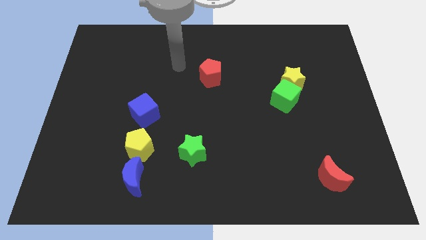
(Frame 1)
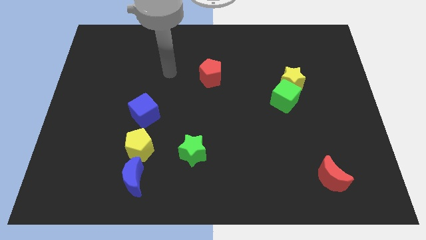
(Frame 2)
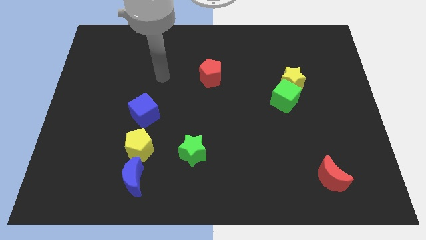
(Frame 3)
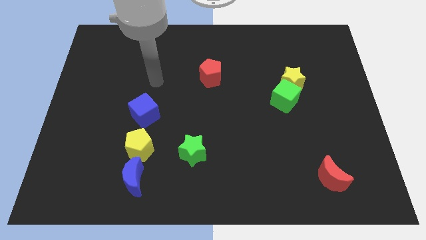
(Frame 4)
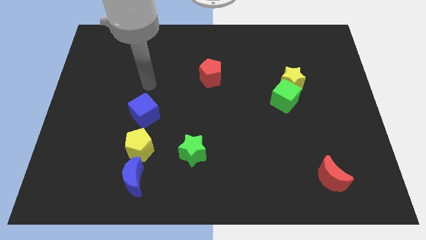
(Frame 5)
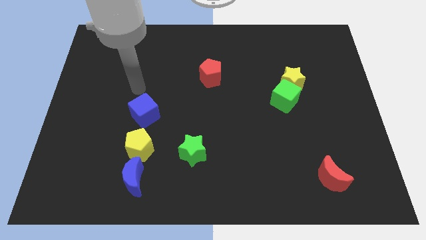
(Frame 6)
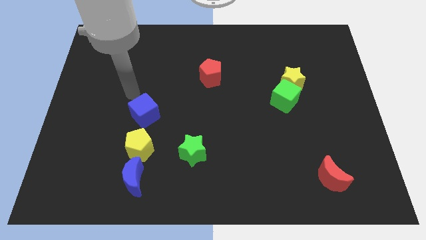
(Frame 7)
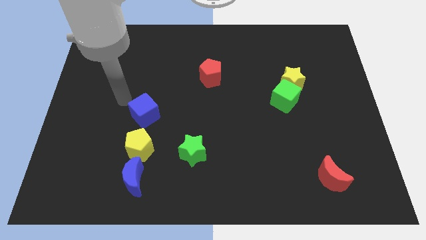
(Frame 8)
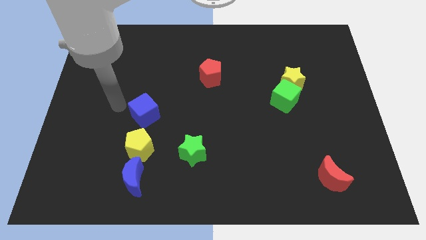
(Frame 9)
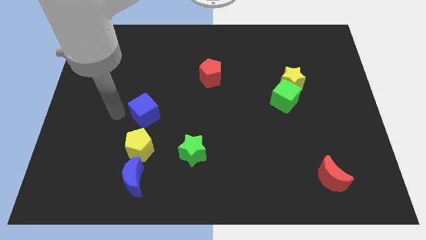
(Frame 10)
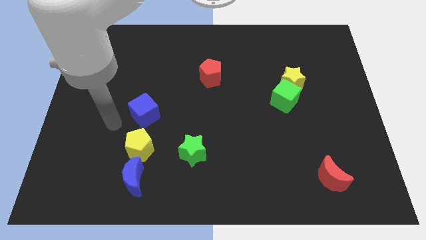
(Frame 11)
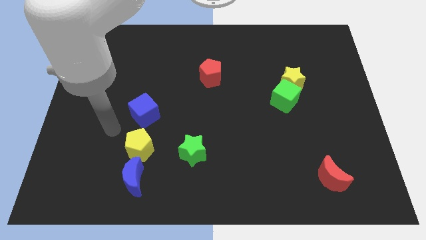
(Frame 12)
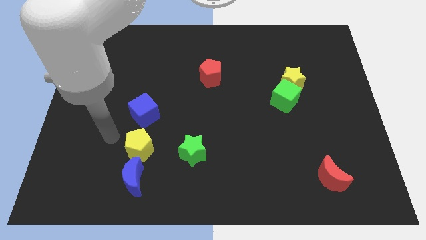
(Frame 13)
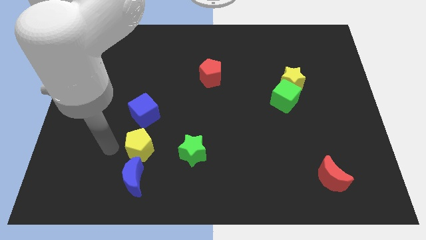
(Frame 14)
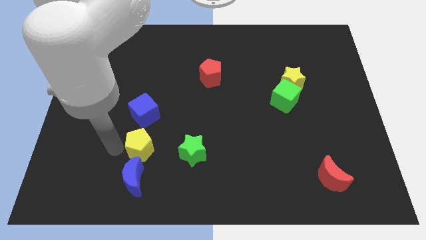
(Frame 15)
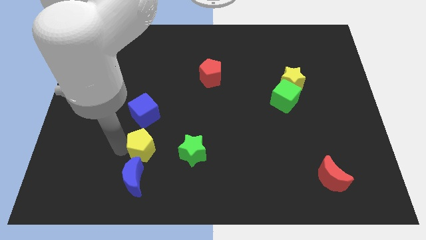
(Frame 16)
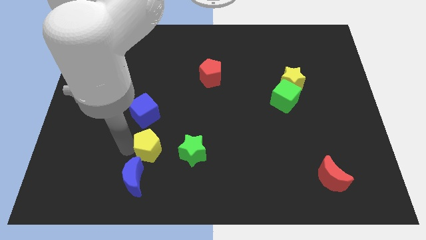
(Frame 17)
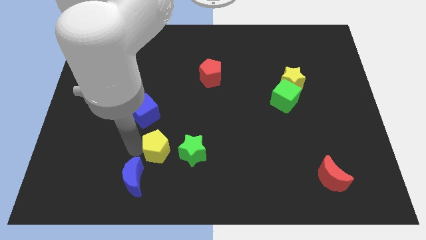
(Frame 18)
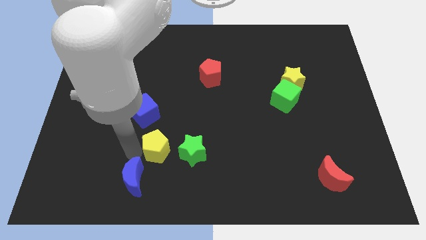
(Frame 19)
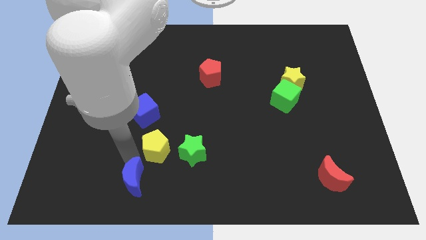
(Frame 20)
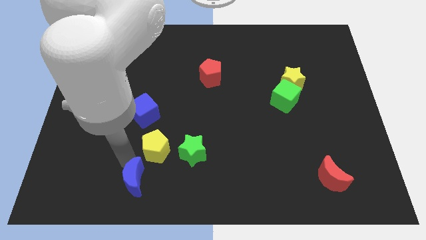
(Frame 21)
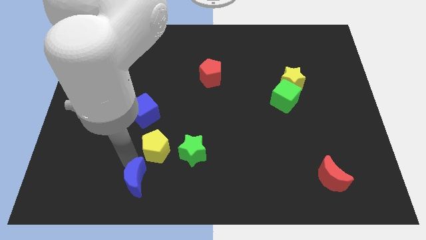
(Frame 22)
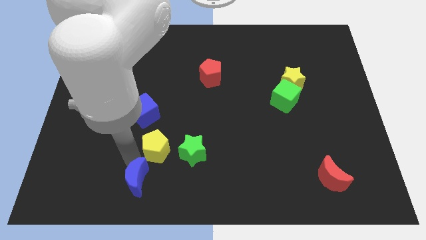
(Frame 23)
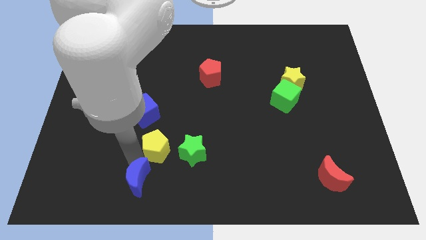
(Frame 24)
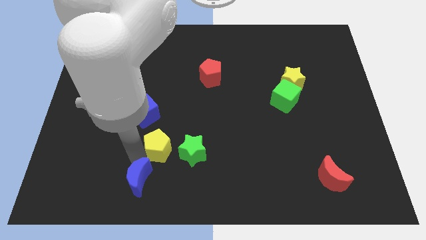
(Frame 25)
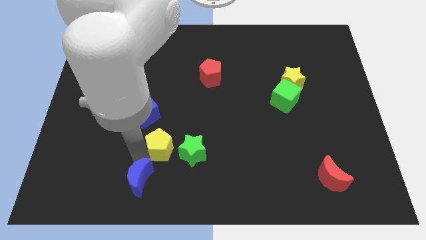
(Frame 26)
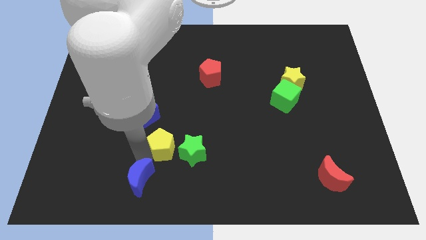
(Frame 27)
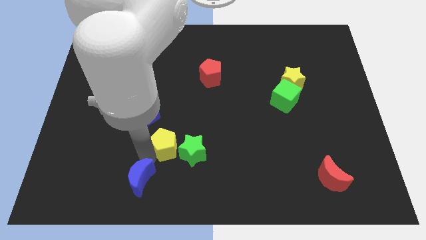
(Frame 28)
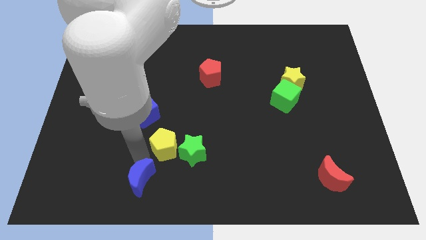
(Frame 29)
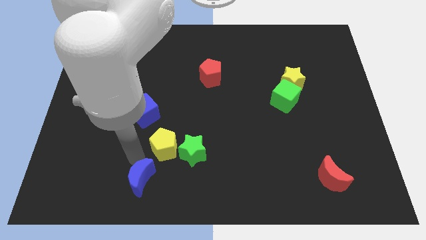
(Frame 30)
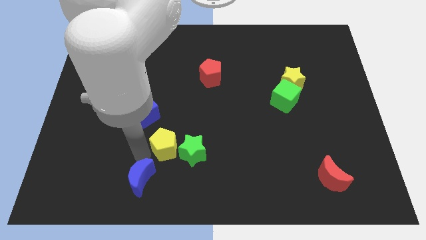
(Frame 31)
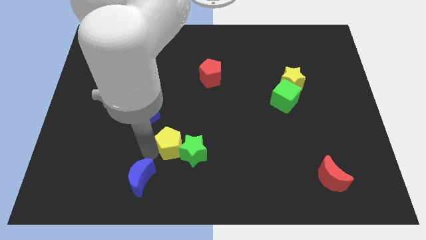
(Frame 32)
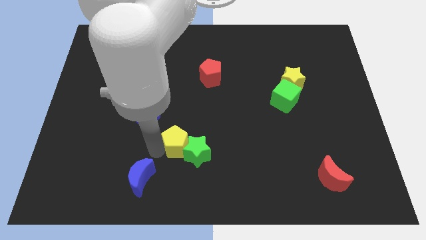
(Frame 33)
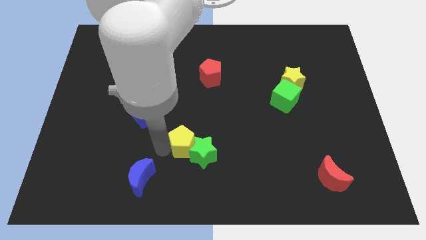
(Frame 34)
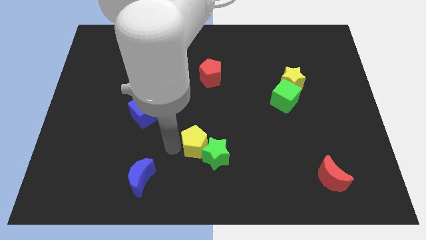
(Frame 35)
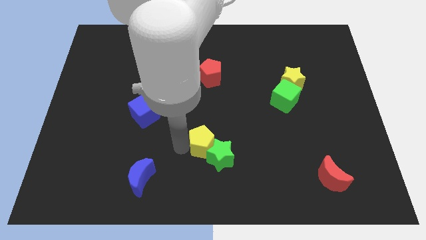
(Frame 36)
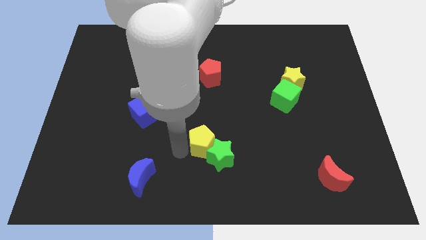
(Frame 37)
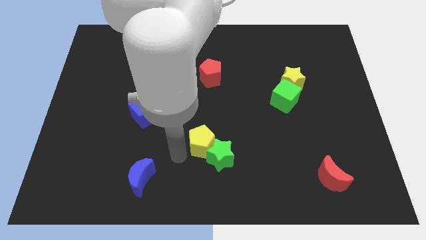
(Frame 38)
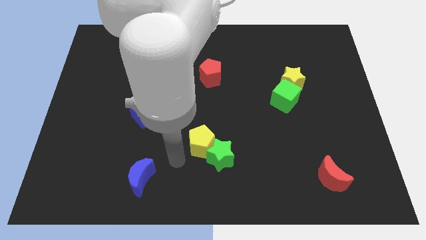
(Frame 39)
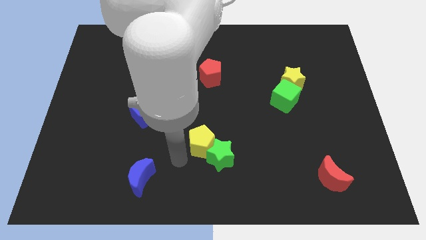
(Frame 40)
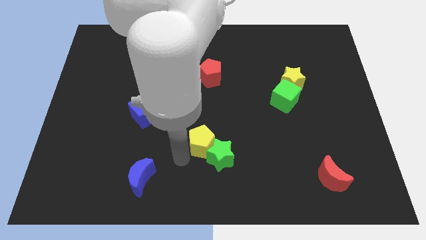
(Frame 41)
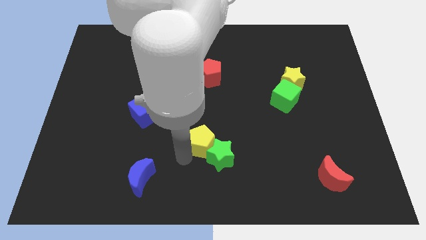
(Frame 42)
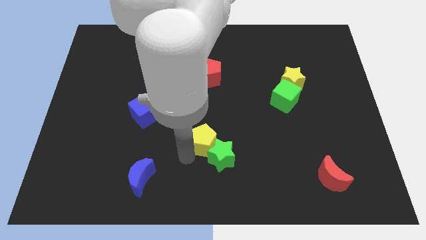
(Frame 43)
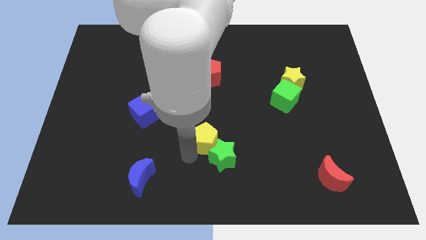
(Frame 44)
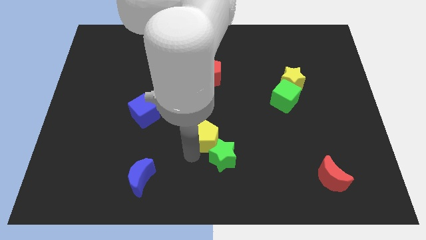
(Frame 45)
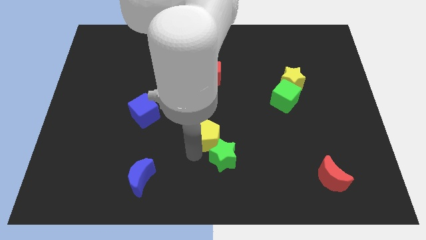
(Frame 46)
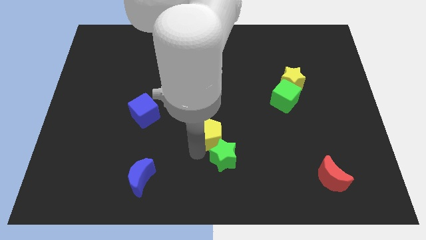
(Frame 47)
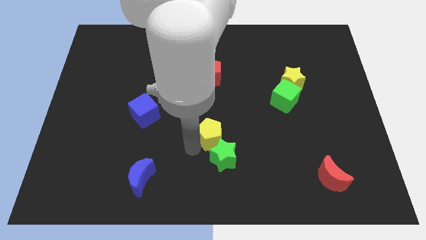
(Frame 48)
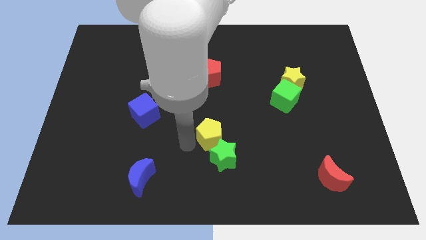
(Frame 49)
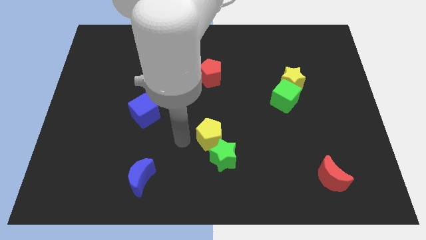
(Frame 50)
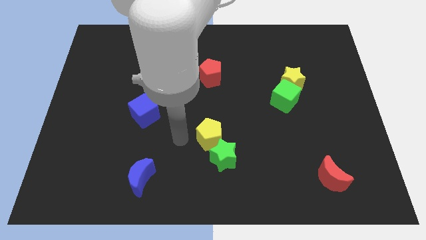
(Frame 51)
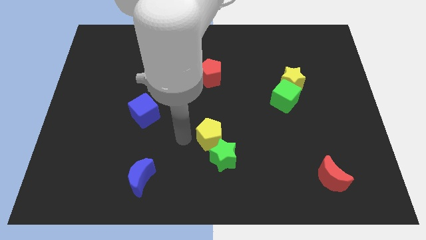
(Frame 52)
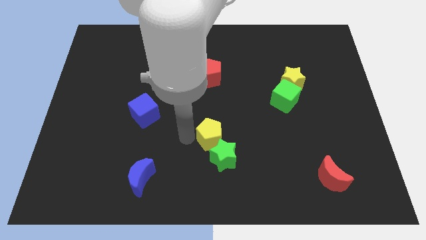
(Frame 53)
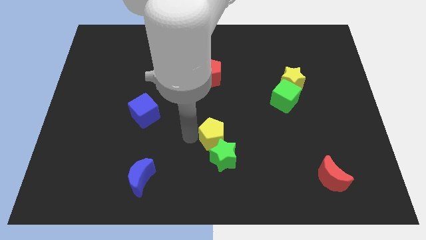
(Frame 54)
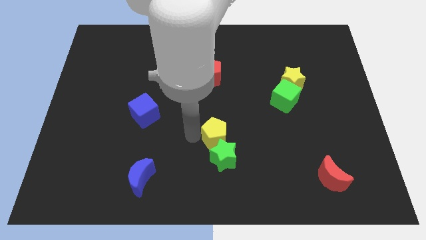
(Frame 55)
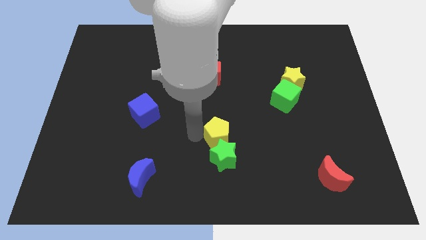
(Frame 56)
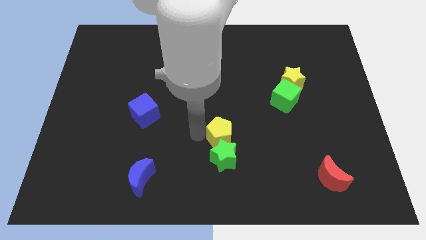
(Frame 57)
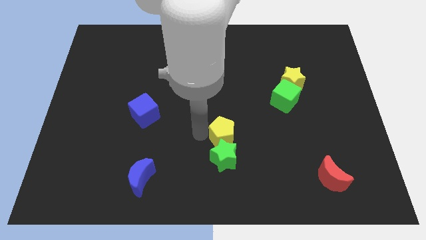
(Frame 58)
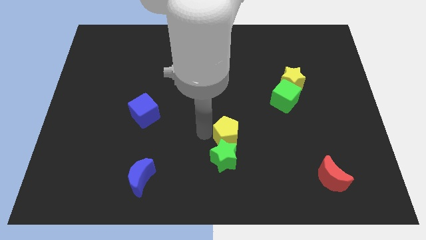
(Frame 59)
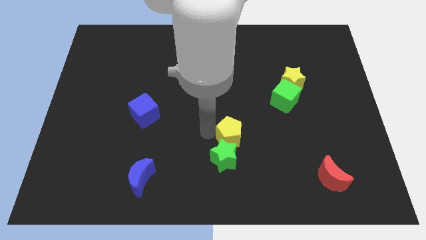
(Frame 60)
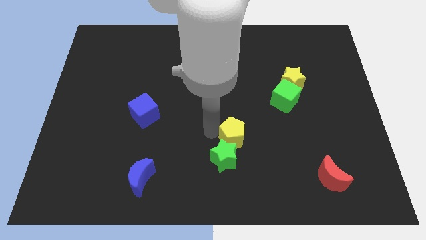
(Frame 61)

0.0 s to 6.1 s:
slide the yellow pentagon to the right

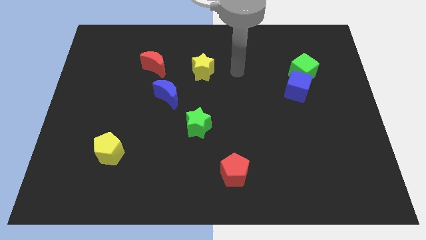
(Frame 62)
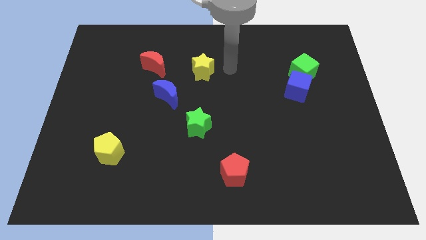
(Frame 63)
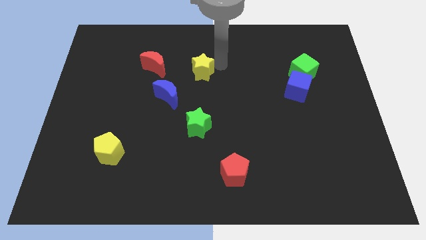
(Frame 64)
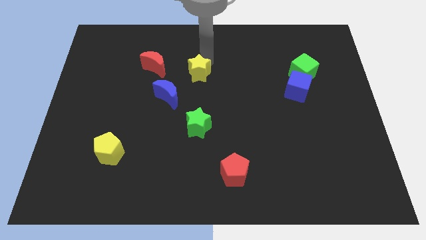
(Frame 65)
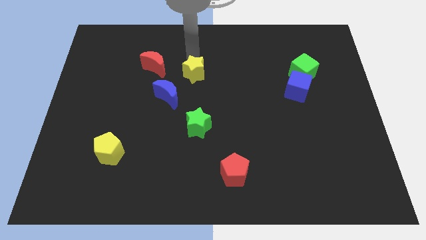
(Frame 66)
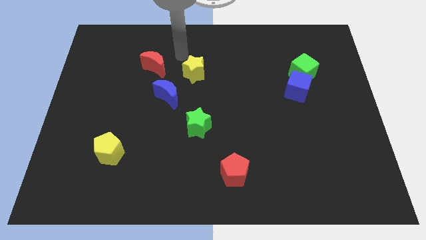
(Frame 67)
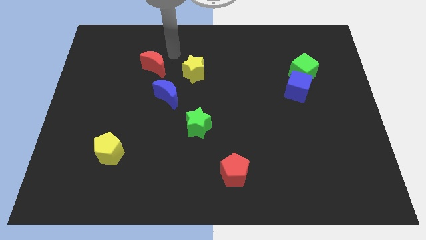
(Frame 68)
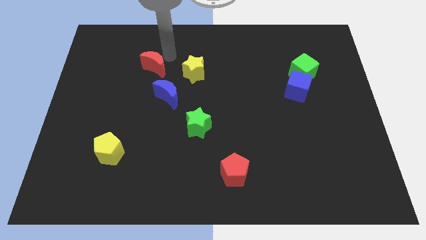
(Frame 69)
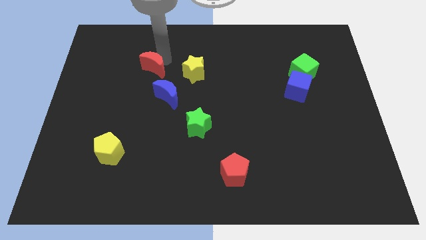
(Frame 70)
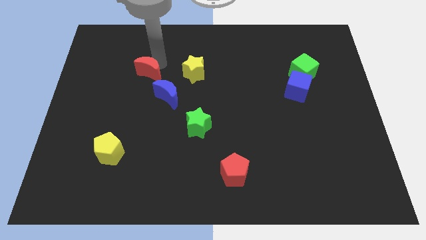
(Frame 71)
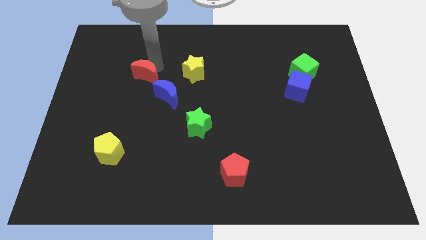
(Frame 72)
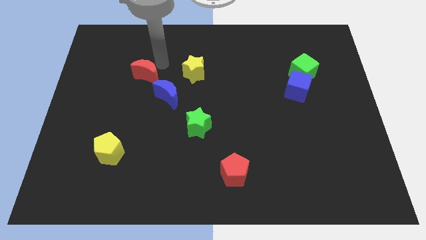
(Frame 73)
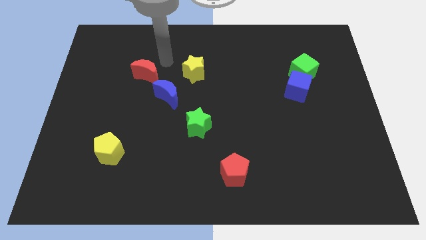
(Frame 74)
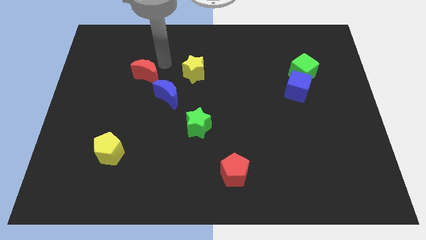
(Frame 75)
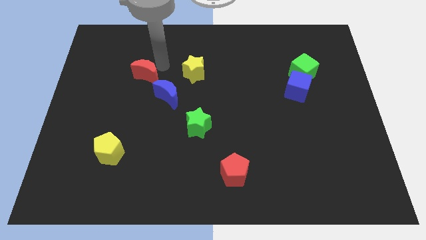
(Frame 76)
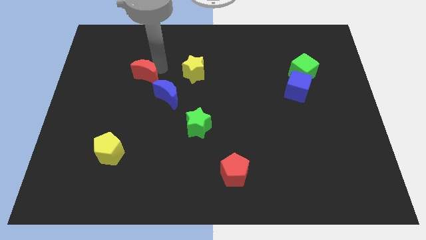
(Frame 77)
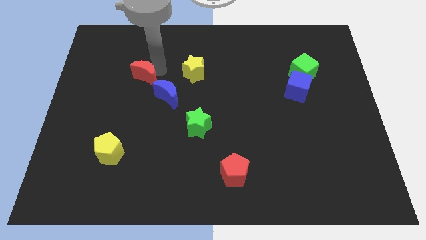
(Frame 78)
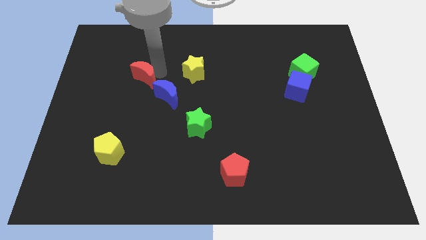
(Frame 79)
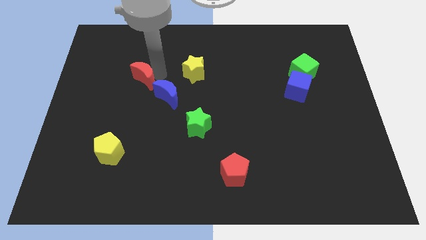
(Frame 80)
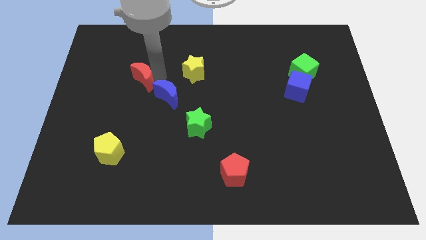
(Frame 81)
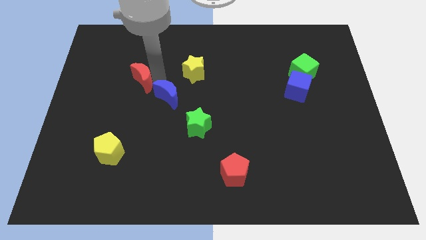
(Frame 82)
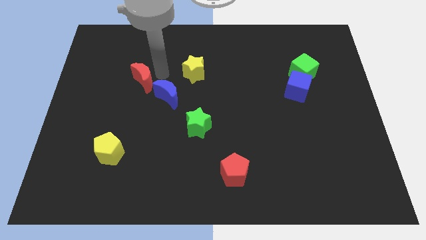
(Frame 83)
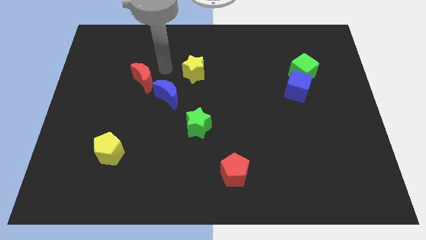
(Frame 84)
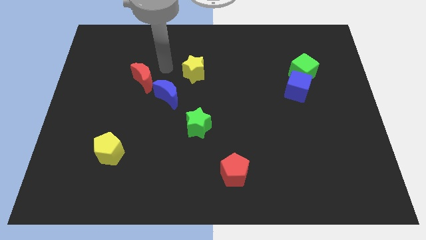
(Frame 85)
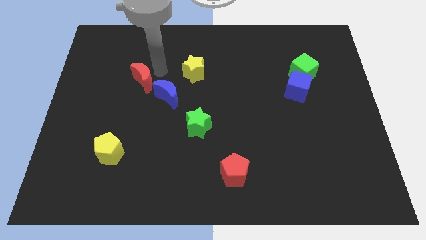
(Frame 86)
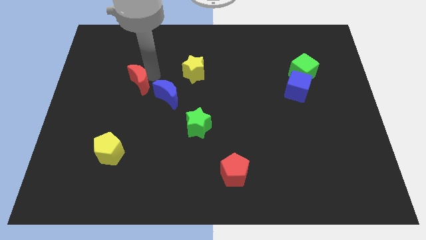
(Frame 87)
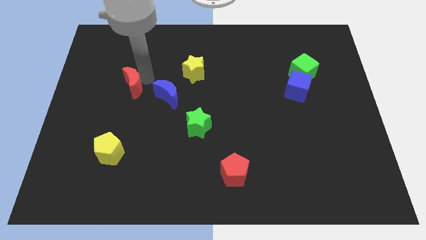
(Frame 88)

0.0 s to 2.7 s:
slide the red moon a little down and left diagonally
